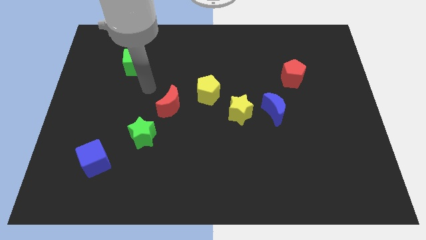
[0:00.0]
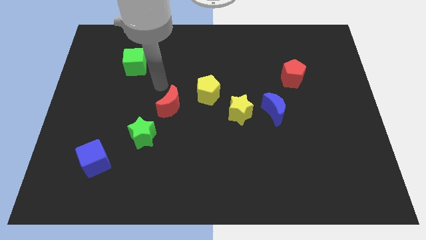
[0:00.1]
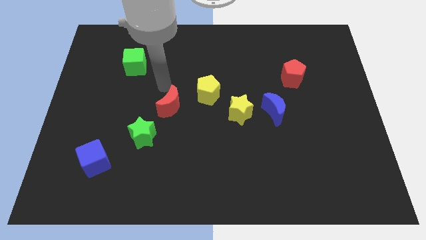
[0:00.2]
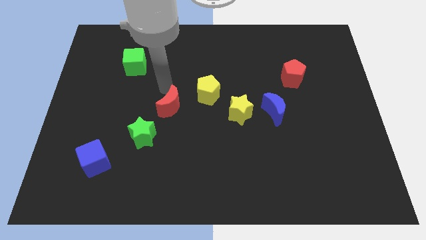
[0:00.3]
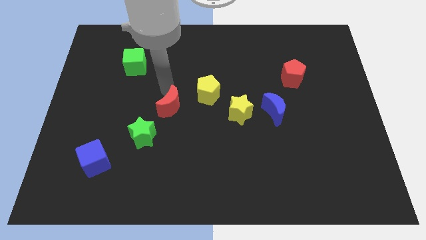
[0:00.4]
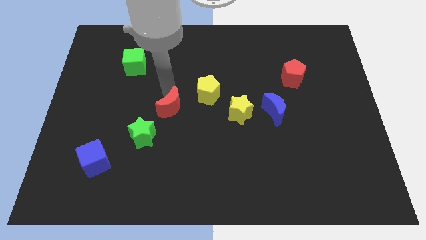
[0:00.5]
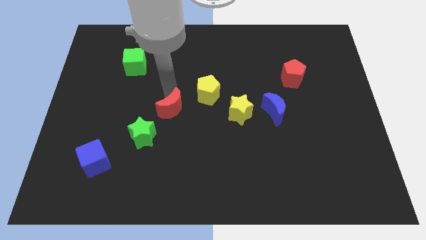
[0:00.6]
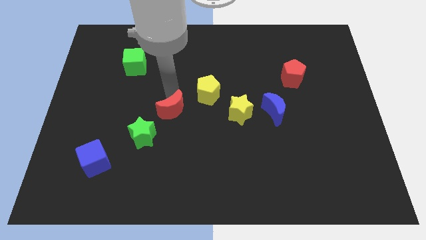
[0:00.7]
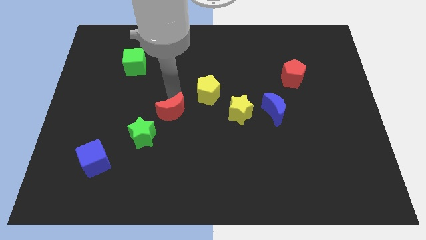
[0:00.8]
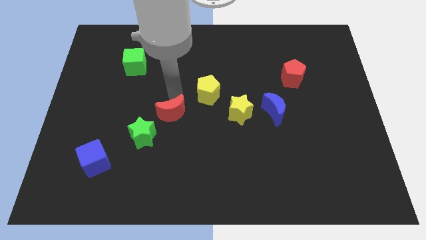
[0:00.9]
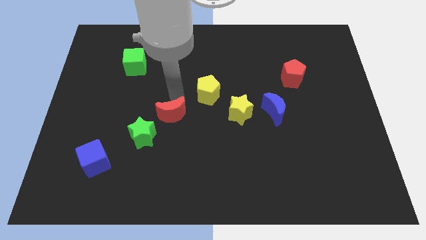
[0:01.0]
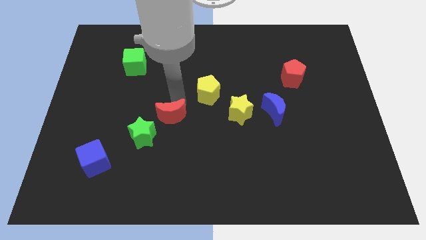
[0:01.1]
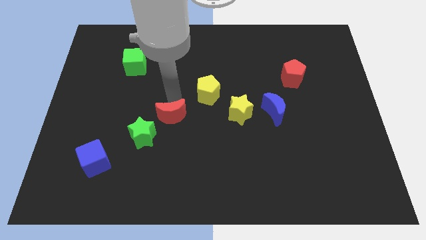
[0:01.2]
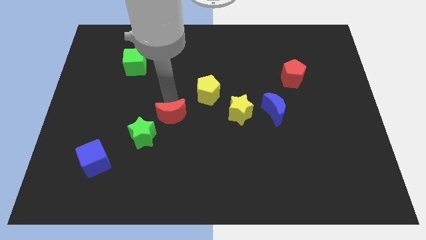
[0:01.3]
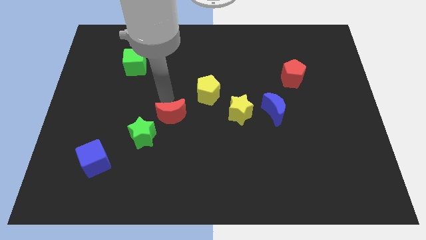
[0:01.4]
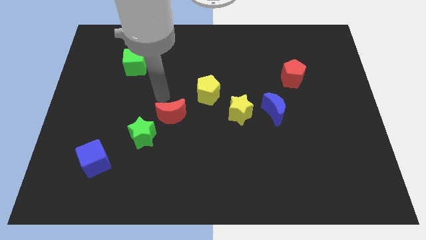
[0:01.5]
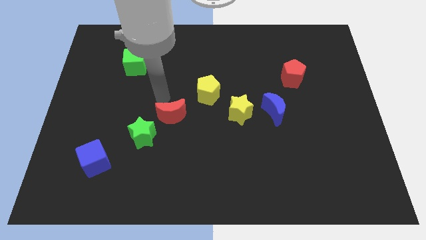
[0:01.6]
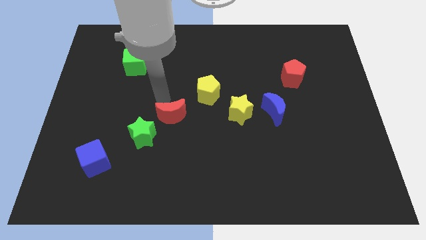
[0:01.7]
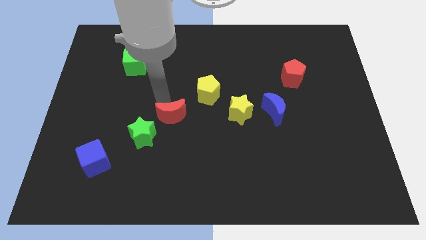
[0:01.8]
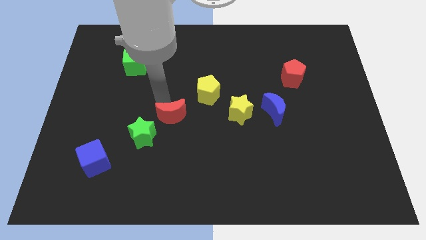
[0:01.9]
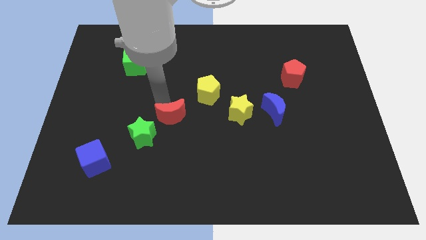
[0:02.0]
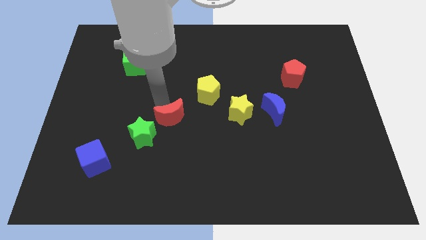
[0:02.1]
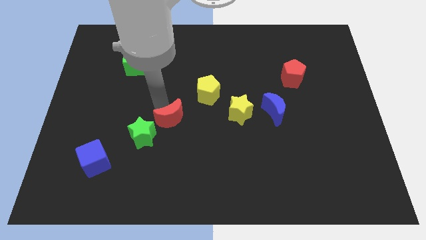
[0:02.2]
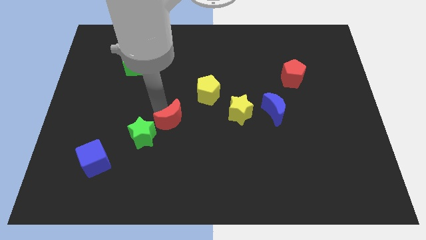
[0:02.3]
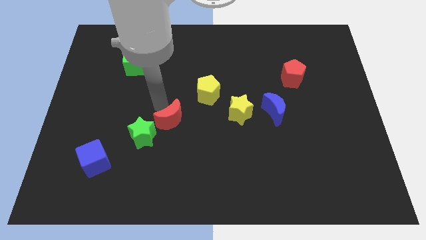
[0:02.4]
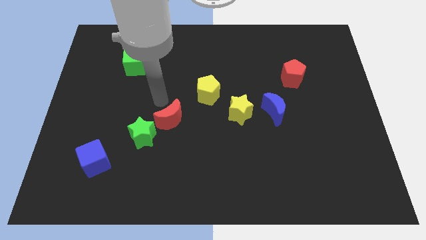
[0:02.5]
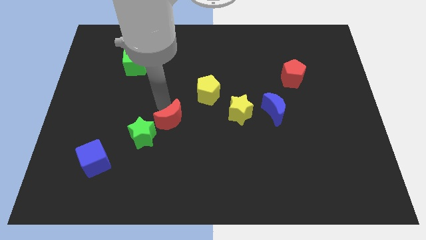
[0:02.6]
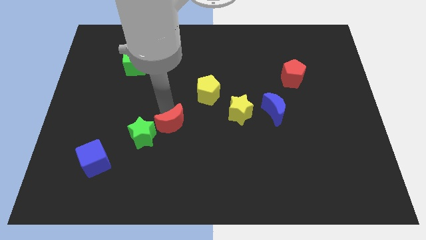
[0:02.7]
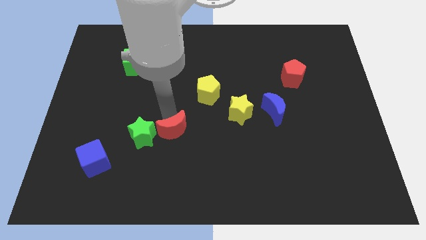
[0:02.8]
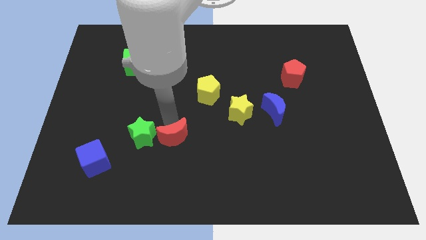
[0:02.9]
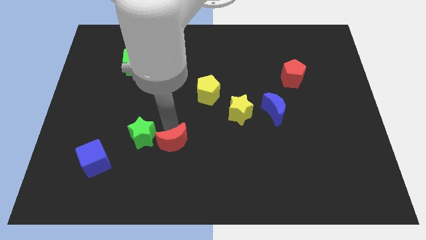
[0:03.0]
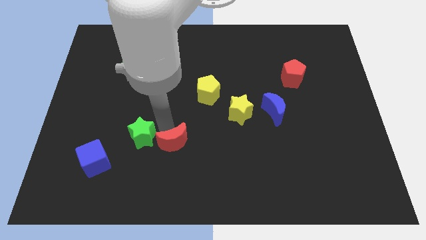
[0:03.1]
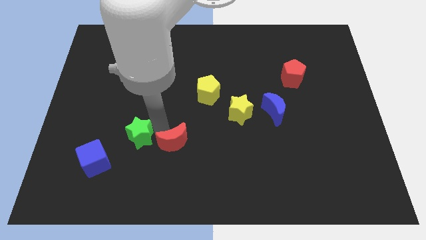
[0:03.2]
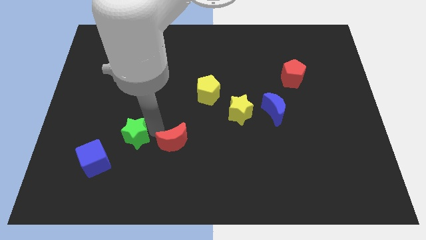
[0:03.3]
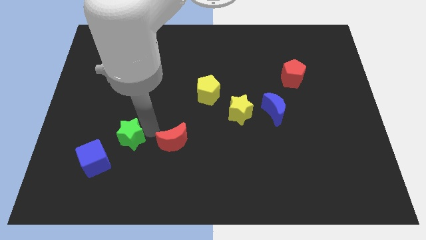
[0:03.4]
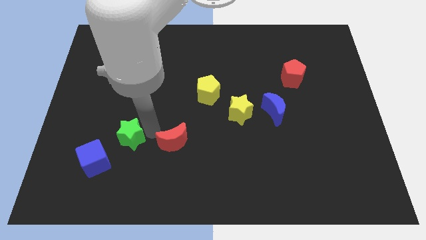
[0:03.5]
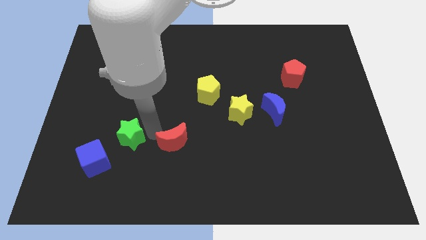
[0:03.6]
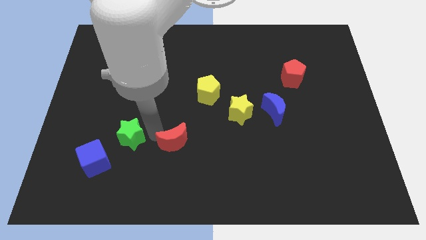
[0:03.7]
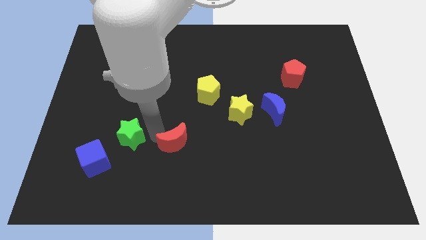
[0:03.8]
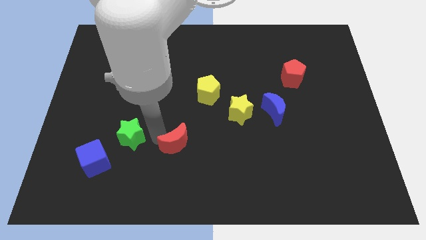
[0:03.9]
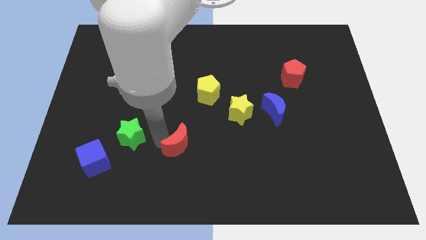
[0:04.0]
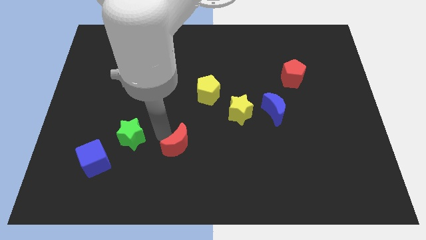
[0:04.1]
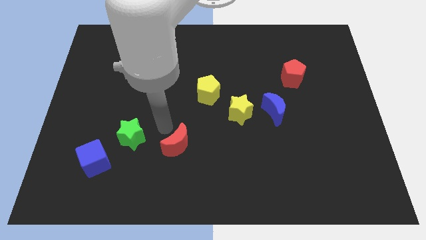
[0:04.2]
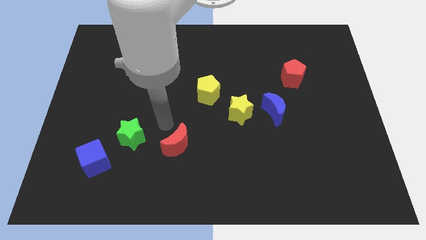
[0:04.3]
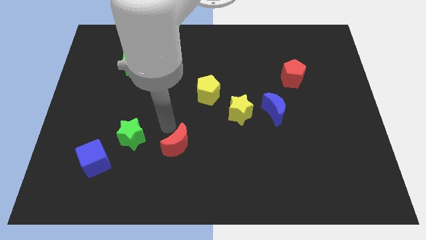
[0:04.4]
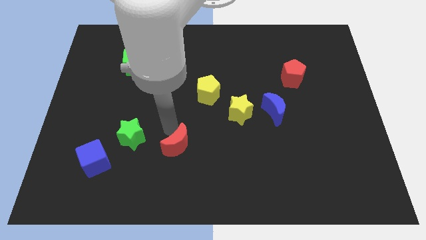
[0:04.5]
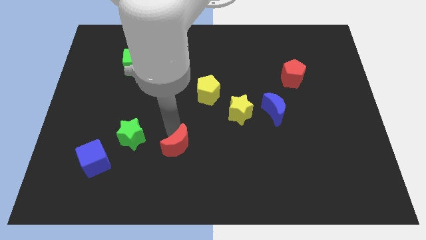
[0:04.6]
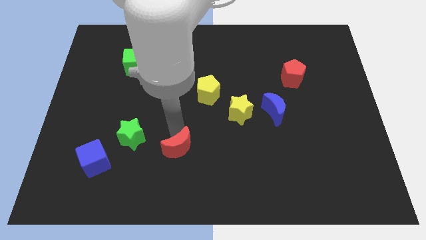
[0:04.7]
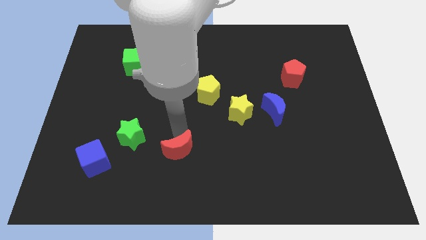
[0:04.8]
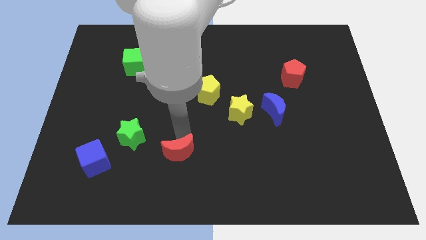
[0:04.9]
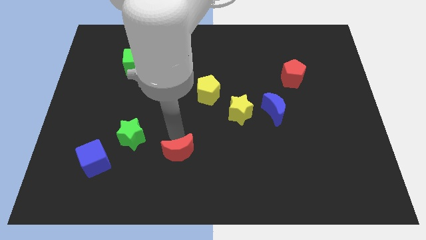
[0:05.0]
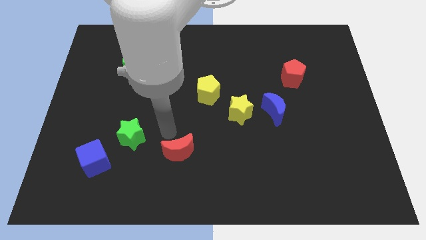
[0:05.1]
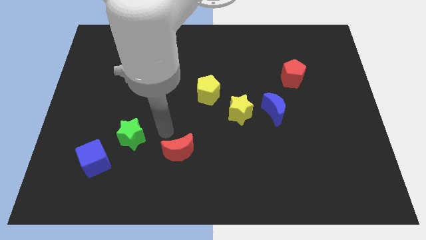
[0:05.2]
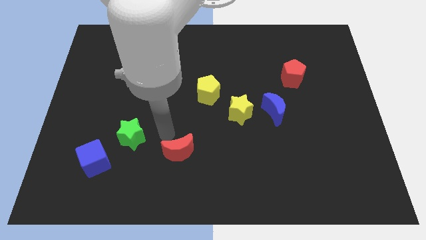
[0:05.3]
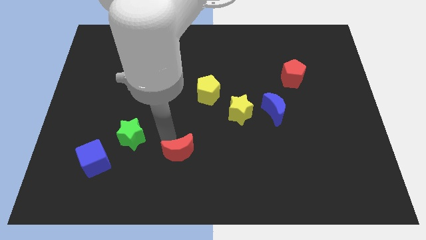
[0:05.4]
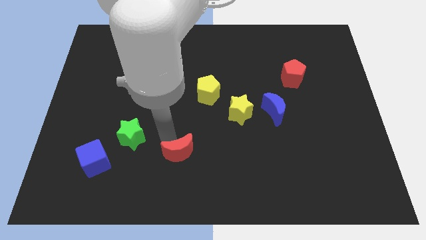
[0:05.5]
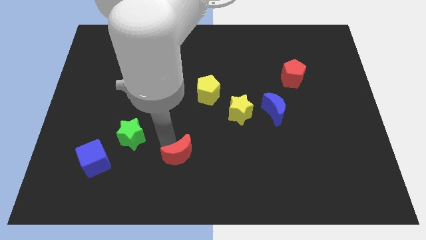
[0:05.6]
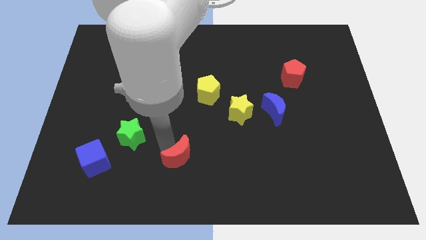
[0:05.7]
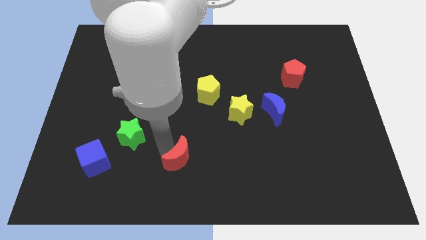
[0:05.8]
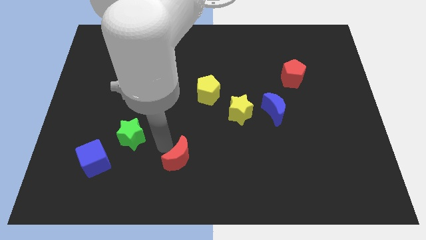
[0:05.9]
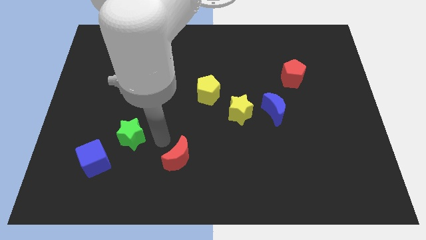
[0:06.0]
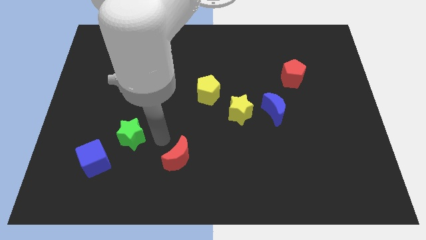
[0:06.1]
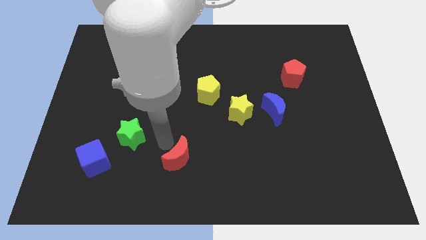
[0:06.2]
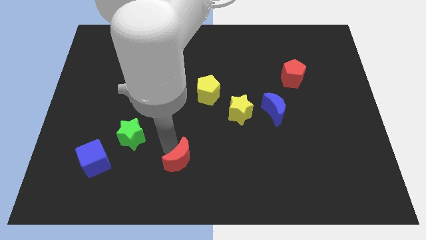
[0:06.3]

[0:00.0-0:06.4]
push the red moon to the bottom side
